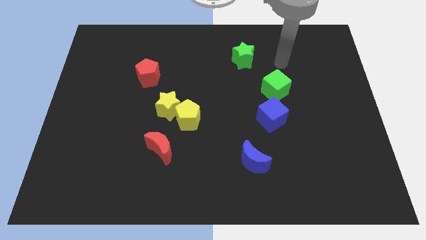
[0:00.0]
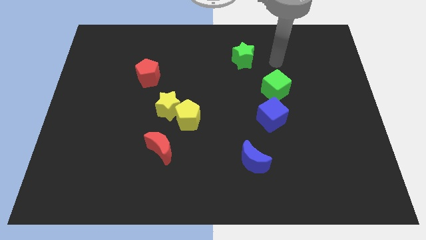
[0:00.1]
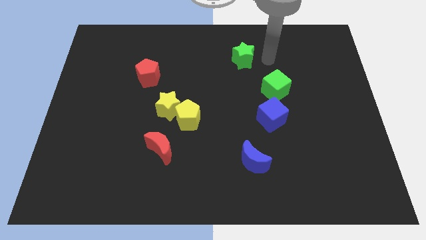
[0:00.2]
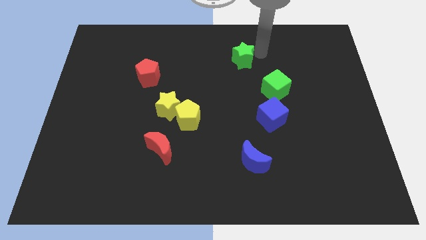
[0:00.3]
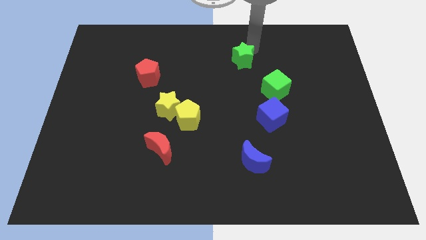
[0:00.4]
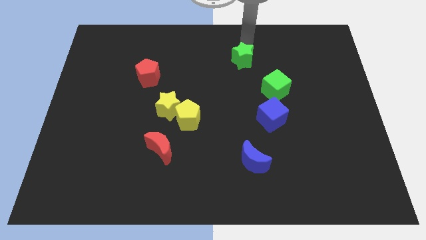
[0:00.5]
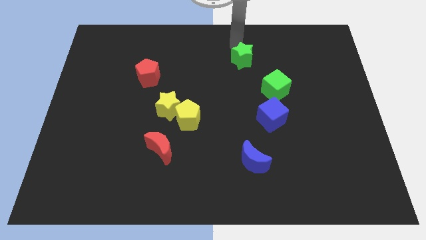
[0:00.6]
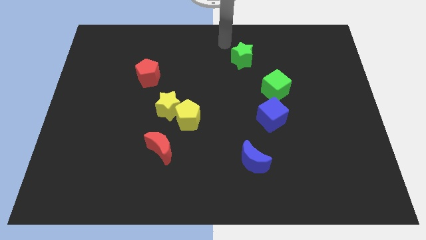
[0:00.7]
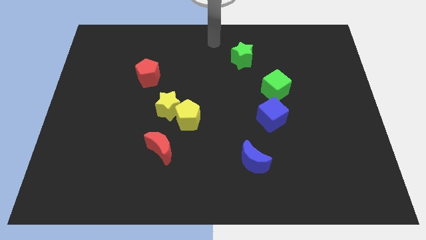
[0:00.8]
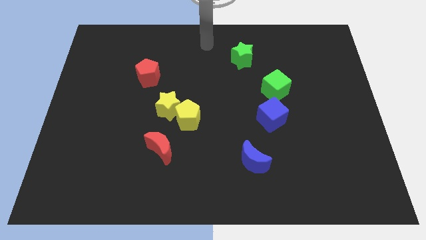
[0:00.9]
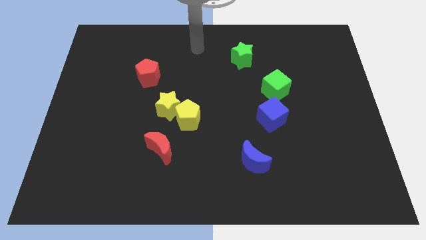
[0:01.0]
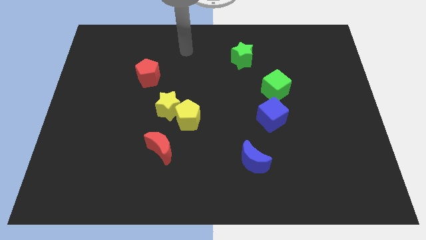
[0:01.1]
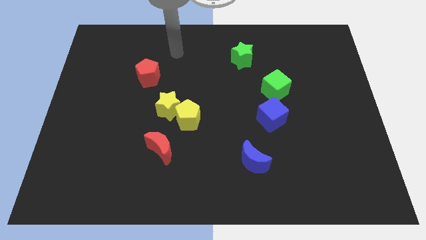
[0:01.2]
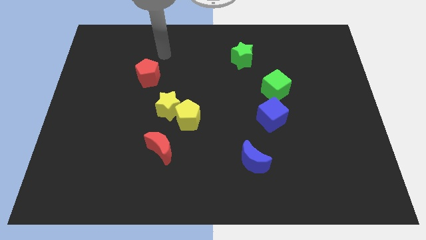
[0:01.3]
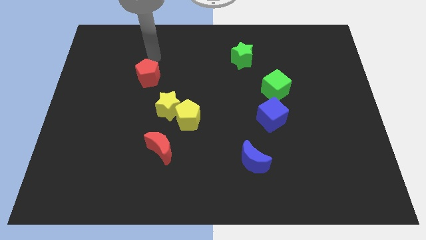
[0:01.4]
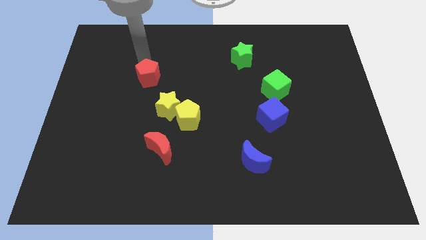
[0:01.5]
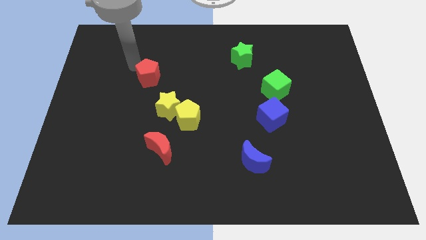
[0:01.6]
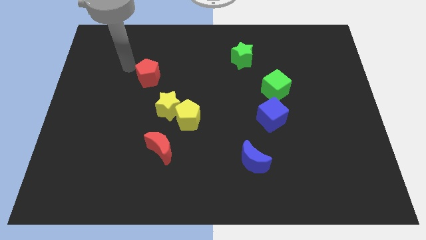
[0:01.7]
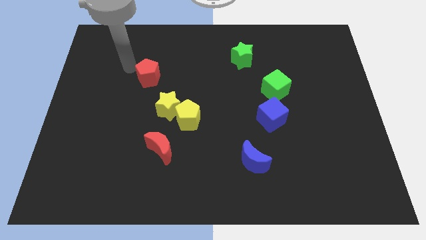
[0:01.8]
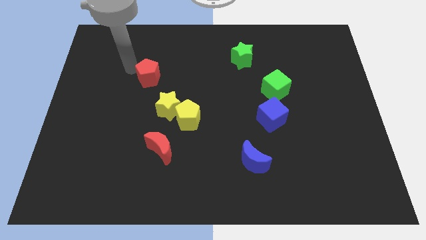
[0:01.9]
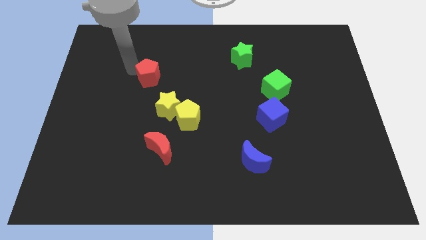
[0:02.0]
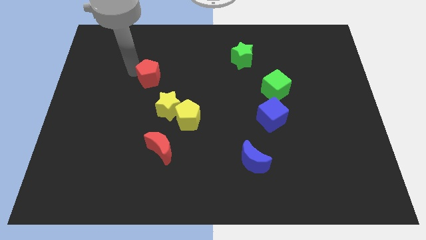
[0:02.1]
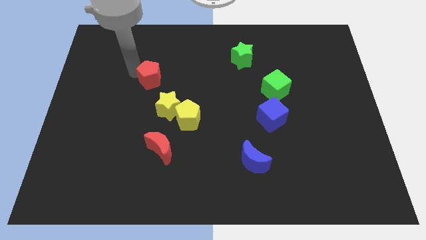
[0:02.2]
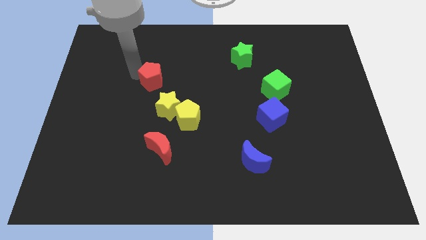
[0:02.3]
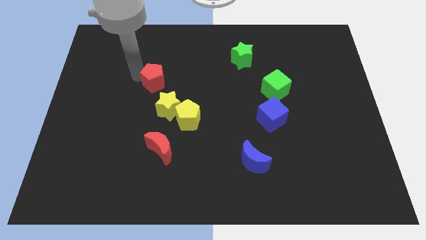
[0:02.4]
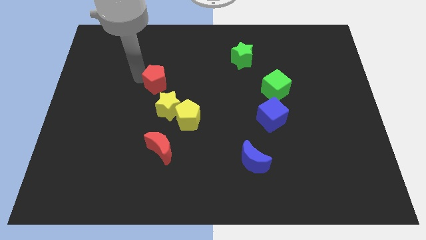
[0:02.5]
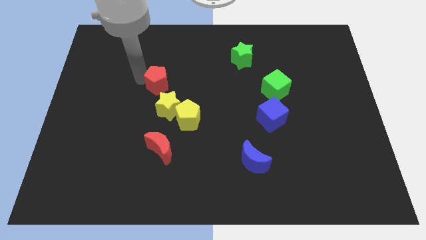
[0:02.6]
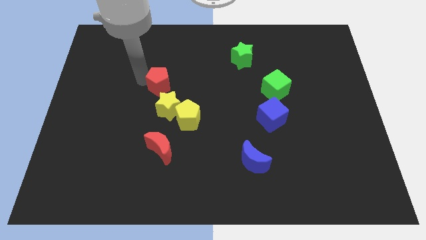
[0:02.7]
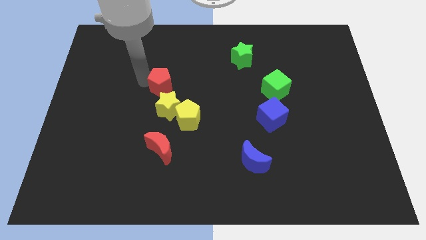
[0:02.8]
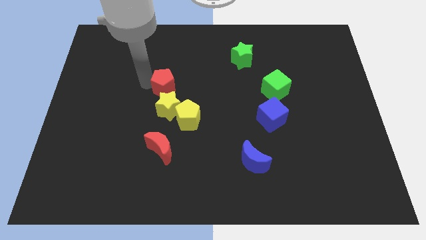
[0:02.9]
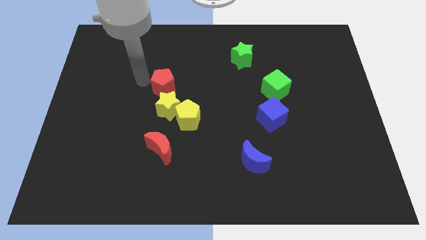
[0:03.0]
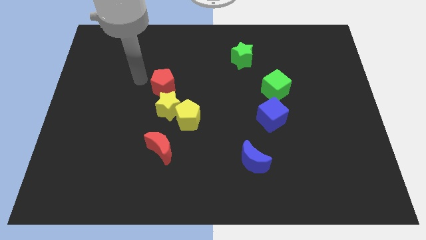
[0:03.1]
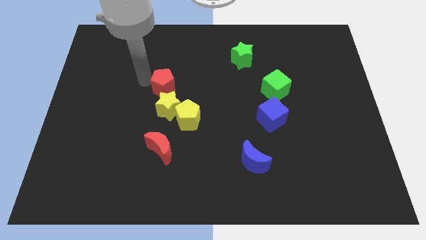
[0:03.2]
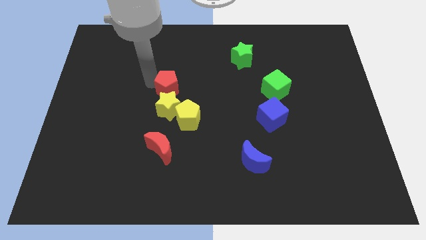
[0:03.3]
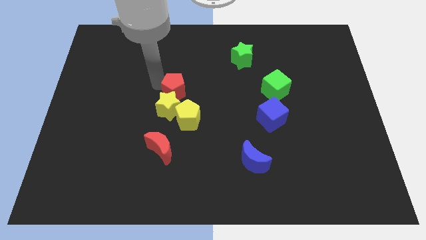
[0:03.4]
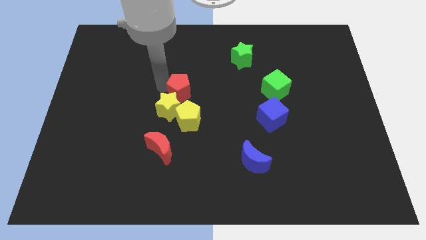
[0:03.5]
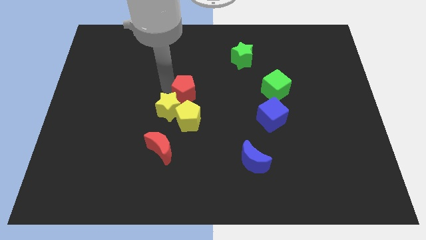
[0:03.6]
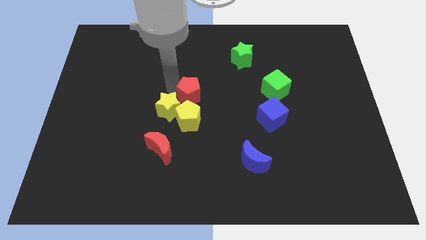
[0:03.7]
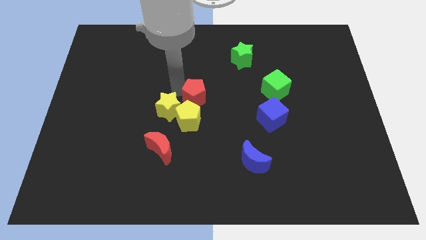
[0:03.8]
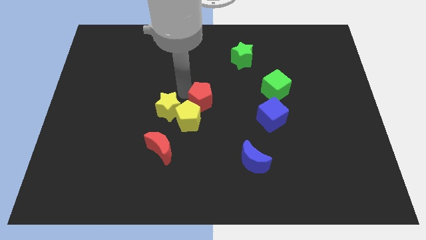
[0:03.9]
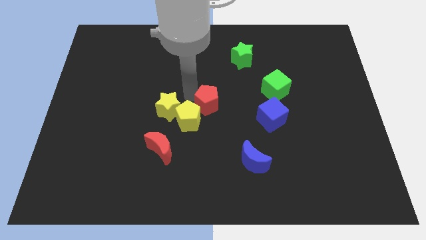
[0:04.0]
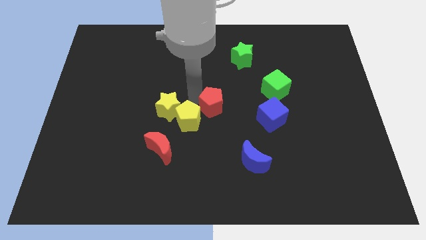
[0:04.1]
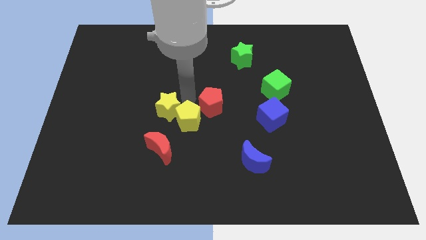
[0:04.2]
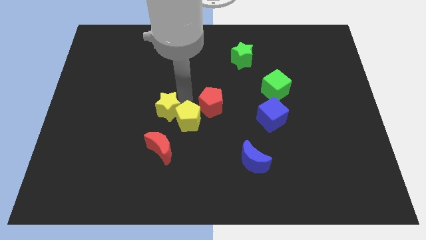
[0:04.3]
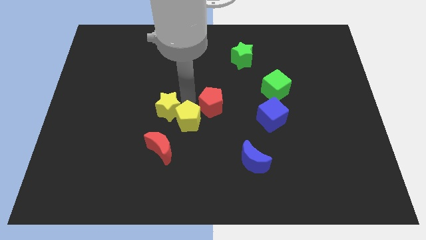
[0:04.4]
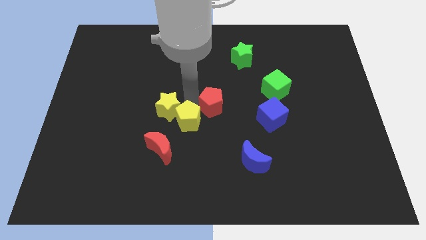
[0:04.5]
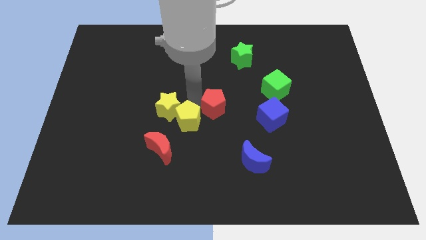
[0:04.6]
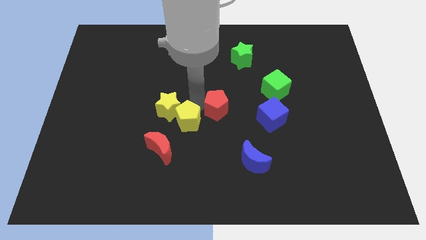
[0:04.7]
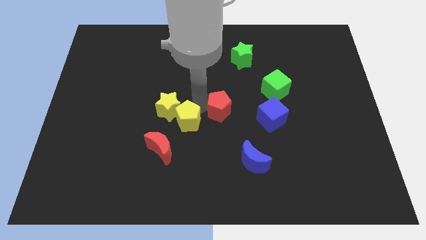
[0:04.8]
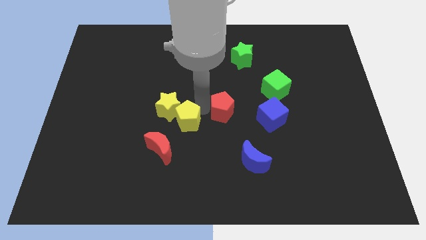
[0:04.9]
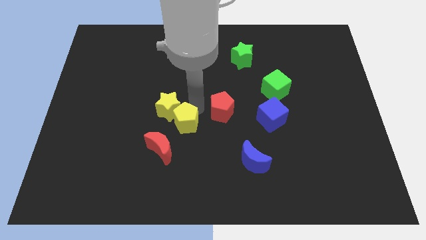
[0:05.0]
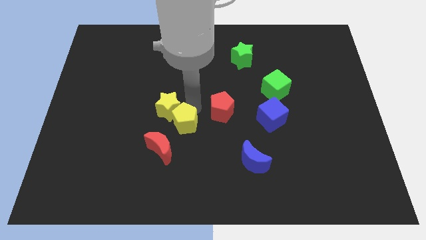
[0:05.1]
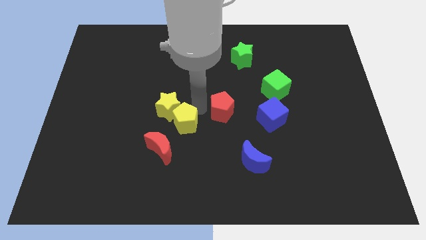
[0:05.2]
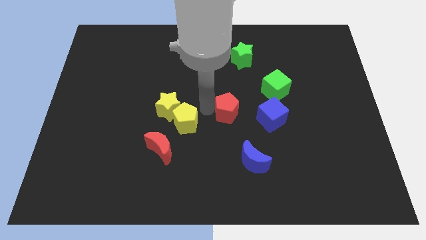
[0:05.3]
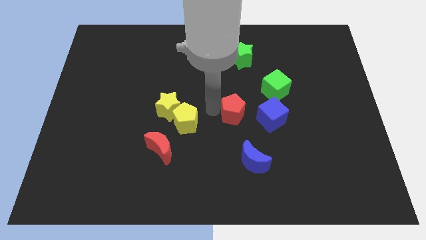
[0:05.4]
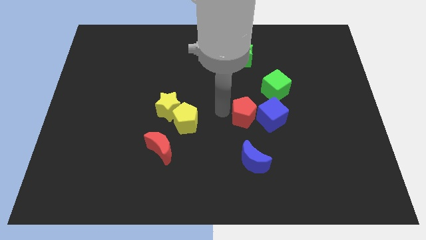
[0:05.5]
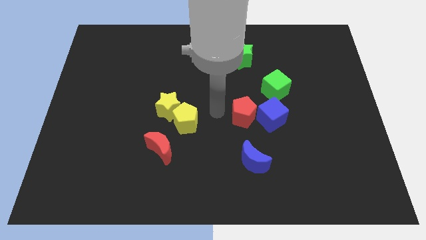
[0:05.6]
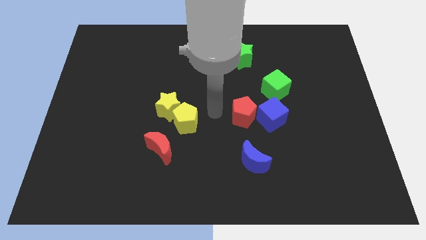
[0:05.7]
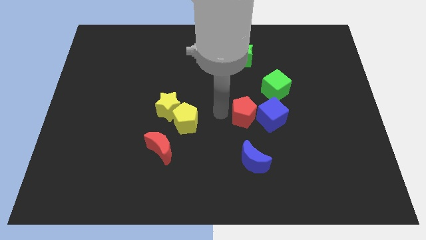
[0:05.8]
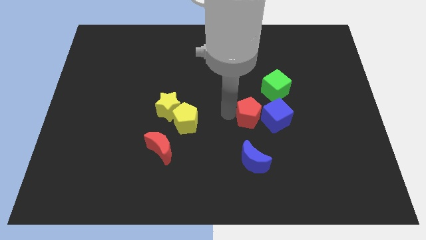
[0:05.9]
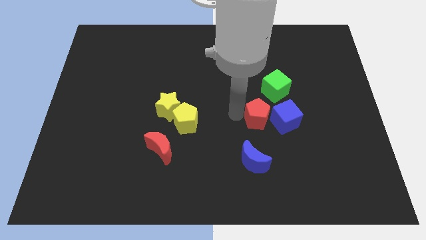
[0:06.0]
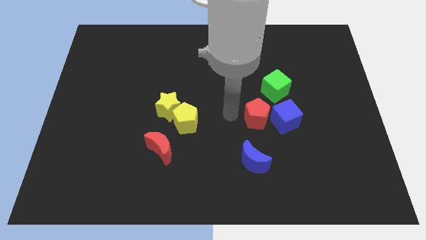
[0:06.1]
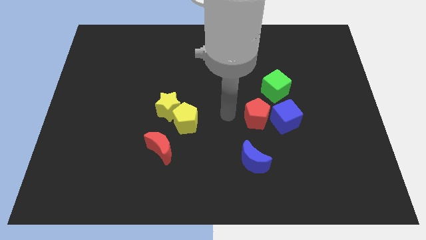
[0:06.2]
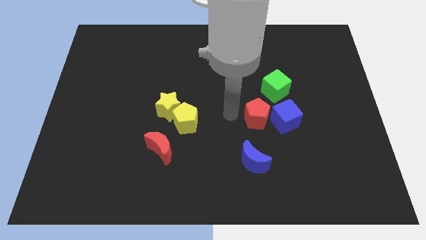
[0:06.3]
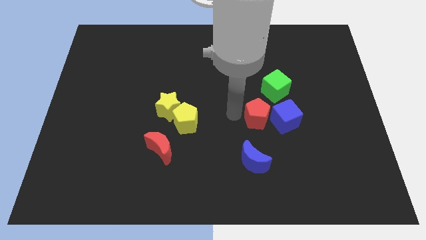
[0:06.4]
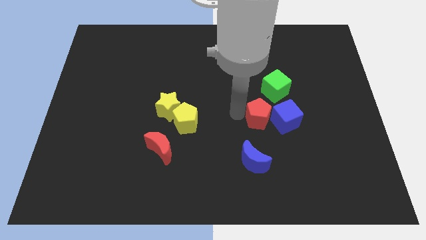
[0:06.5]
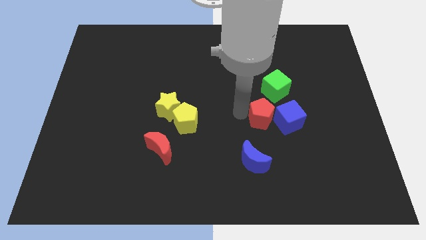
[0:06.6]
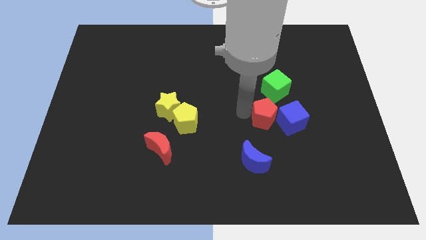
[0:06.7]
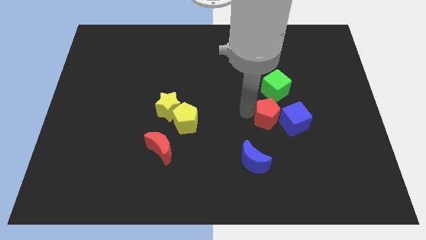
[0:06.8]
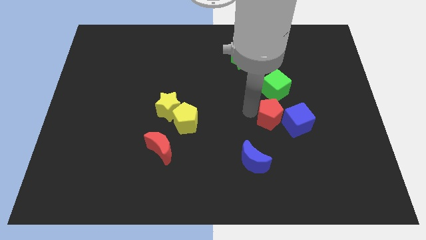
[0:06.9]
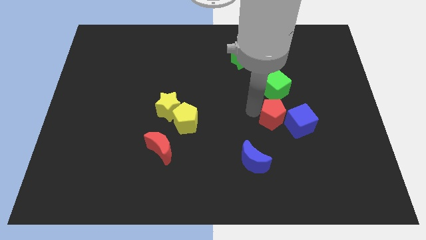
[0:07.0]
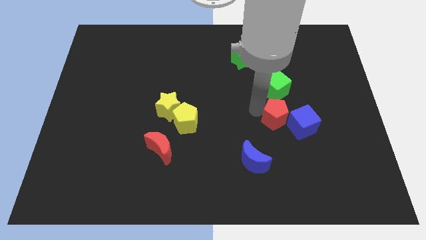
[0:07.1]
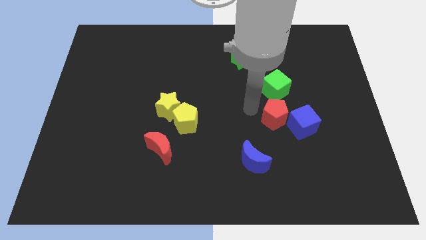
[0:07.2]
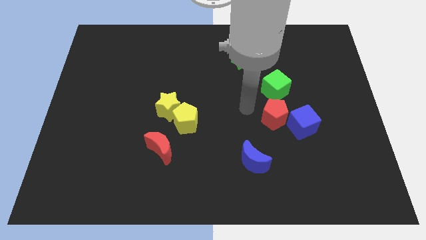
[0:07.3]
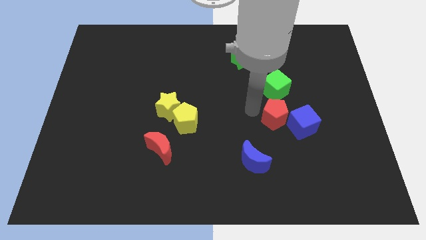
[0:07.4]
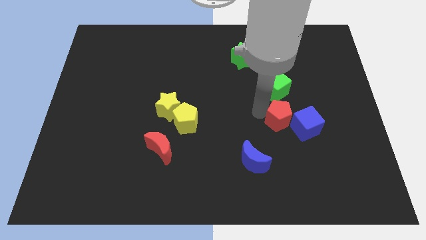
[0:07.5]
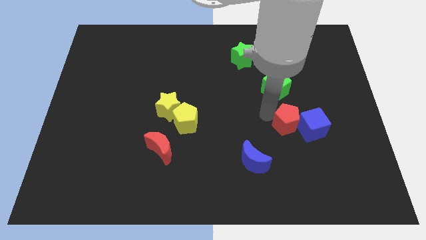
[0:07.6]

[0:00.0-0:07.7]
put the red pentagon to the blue cube
